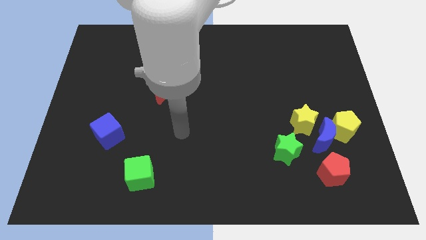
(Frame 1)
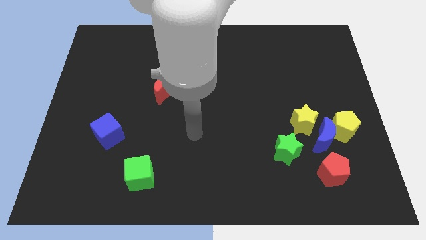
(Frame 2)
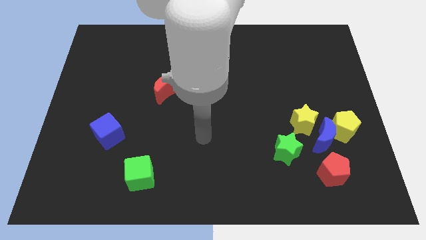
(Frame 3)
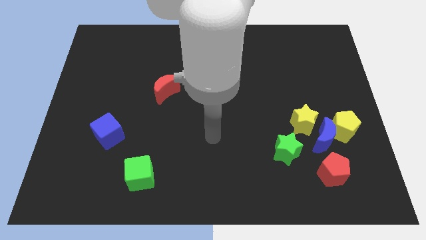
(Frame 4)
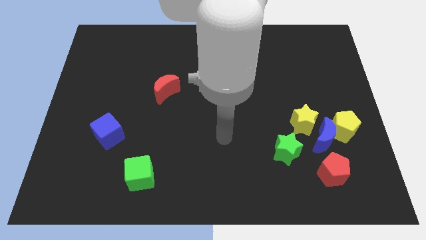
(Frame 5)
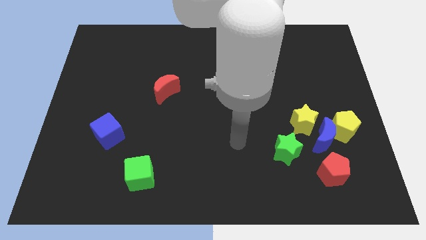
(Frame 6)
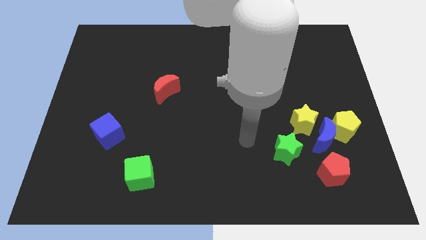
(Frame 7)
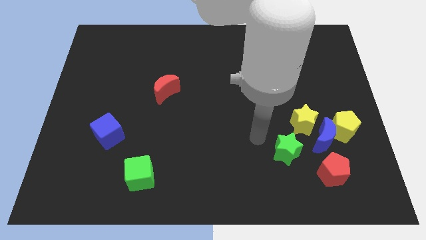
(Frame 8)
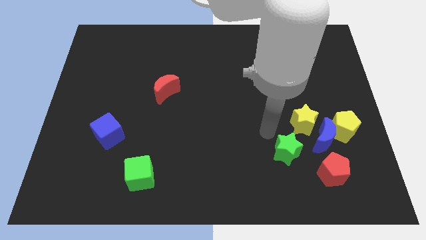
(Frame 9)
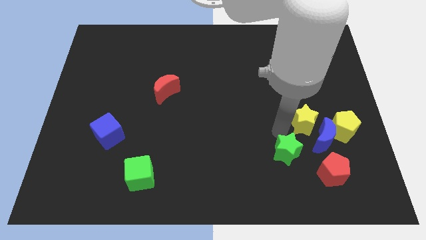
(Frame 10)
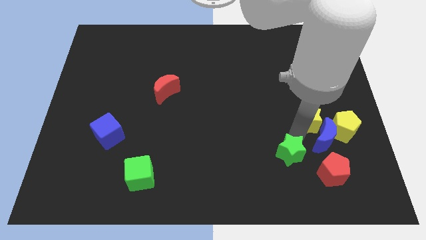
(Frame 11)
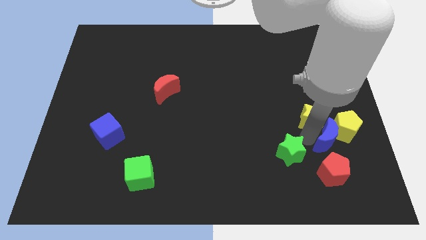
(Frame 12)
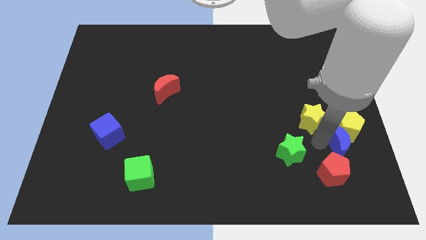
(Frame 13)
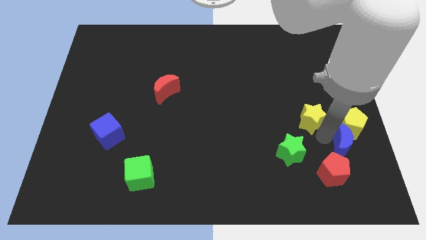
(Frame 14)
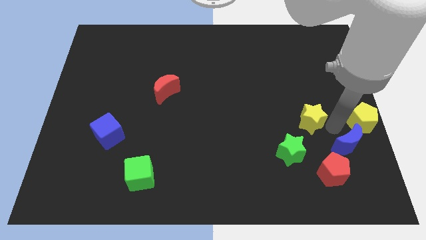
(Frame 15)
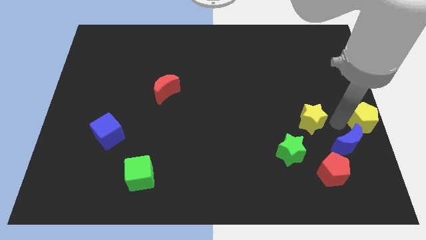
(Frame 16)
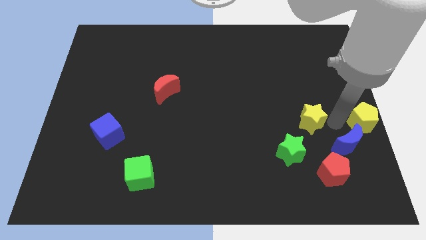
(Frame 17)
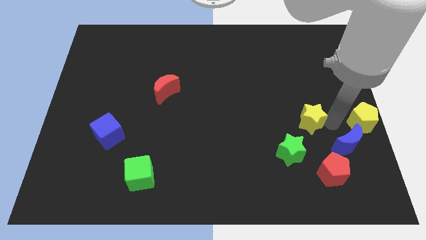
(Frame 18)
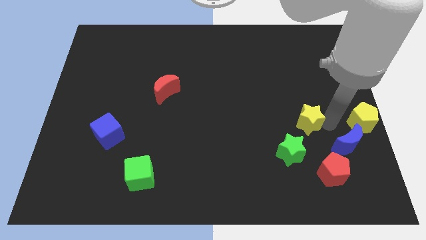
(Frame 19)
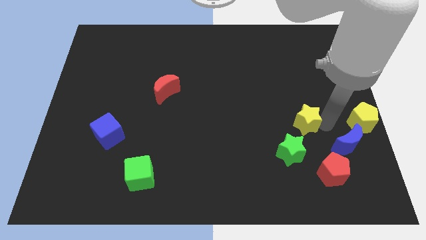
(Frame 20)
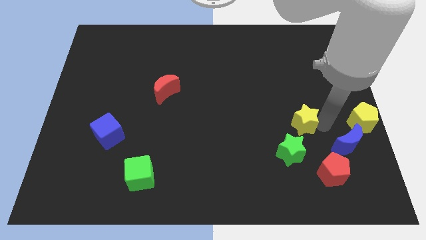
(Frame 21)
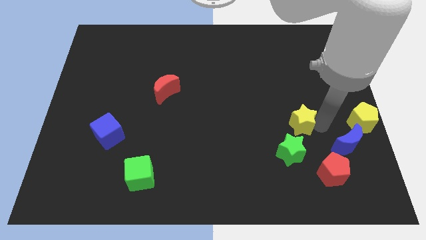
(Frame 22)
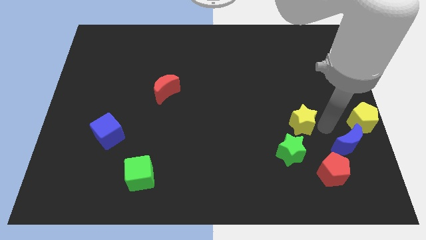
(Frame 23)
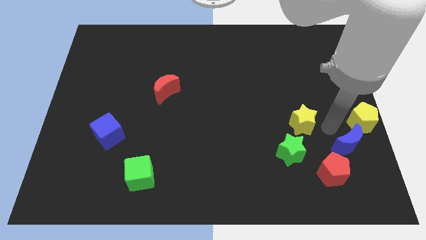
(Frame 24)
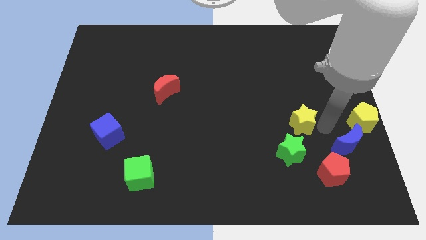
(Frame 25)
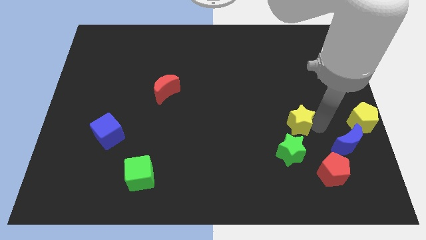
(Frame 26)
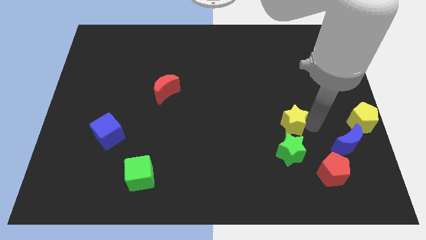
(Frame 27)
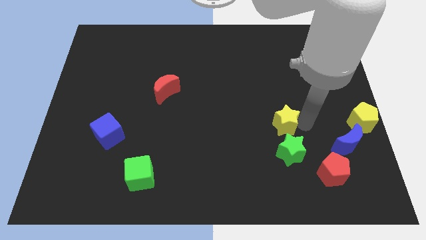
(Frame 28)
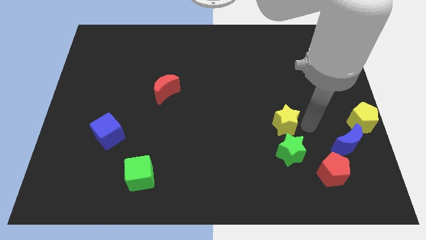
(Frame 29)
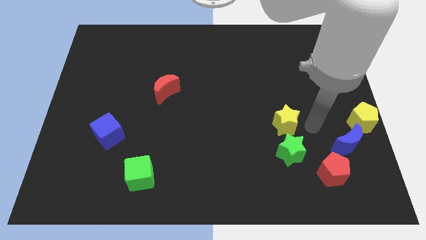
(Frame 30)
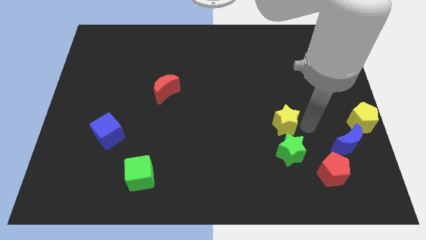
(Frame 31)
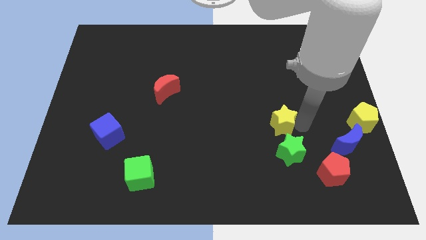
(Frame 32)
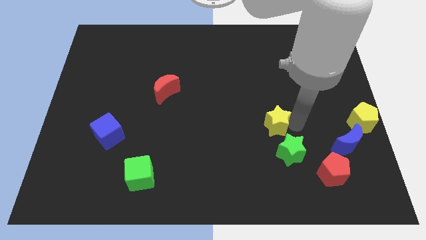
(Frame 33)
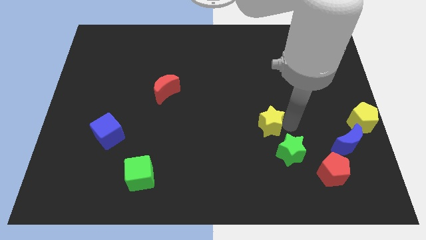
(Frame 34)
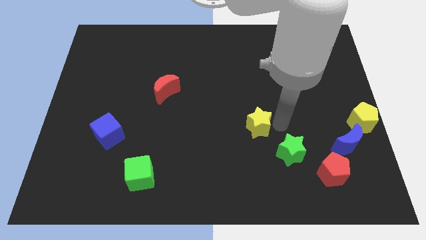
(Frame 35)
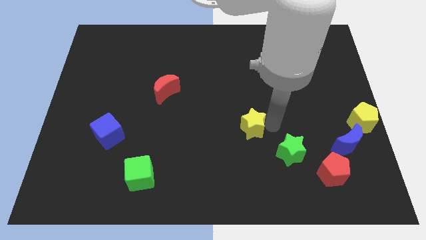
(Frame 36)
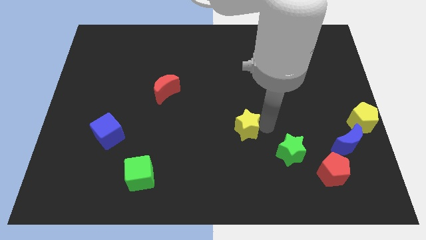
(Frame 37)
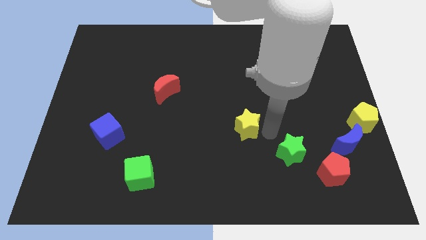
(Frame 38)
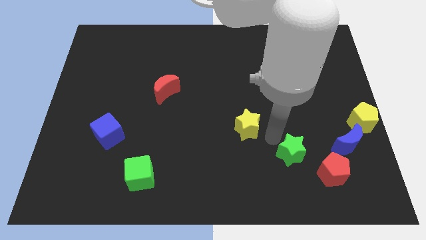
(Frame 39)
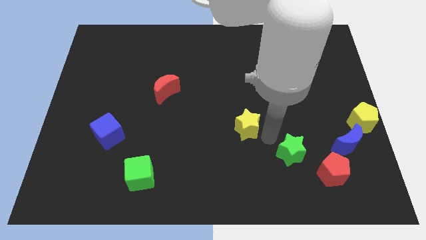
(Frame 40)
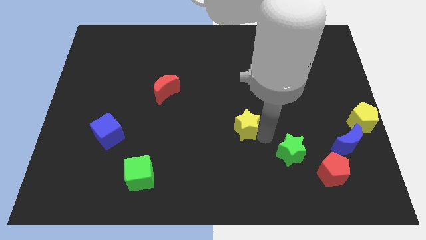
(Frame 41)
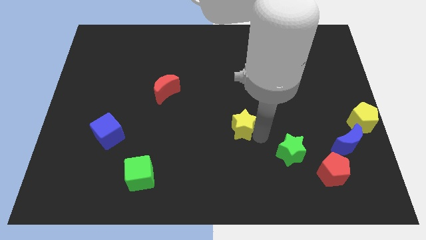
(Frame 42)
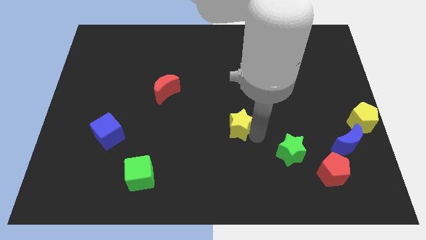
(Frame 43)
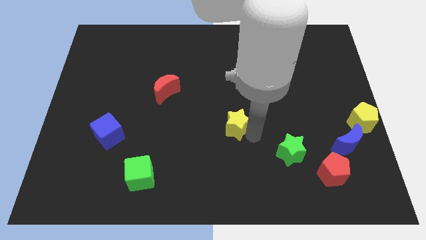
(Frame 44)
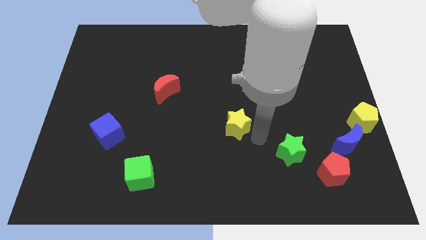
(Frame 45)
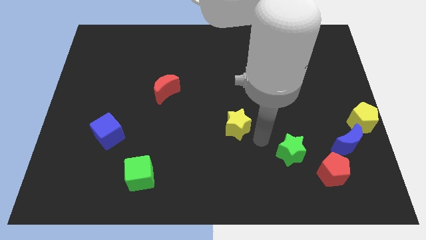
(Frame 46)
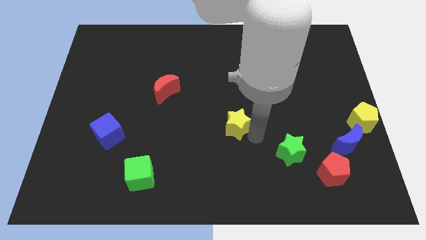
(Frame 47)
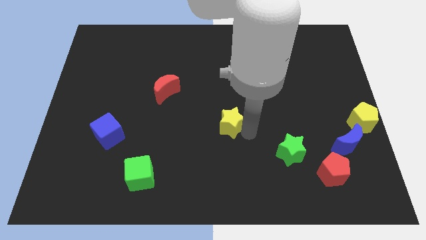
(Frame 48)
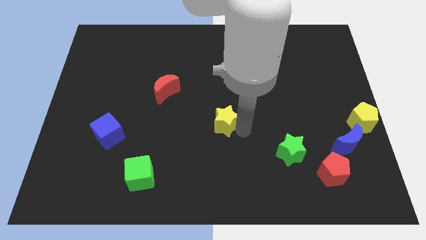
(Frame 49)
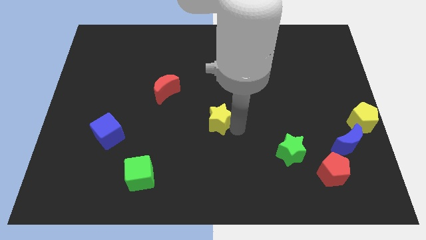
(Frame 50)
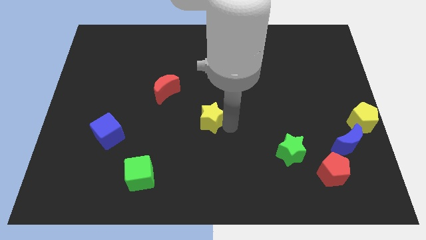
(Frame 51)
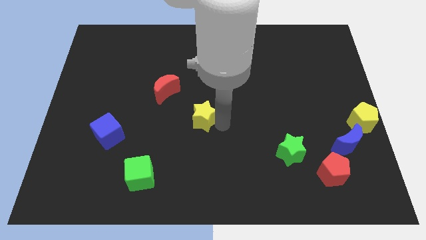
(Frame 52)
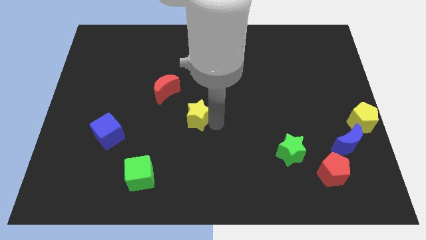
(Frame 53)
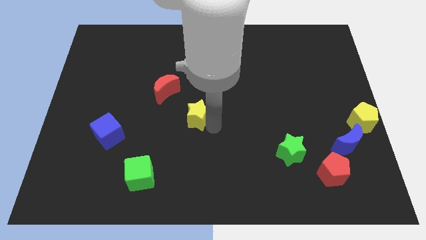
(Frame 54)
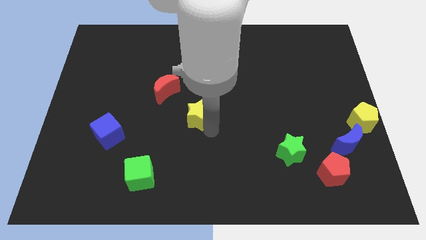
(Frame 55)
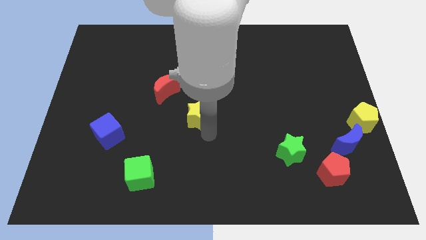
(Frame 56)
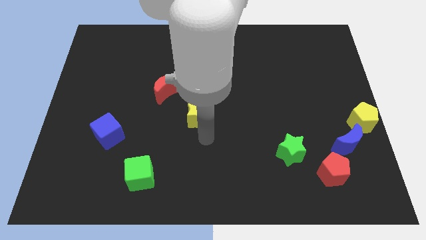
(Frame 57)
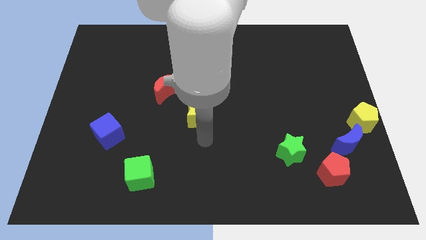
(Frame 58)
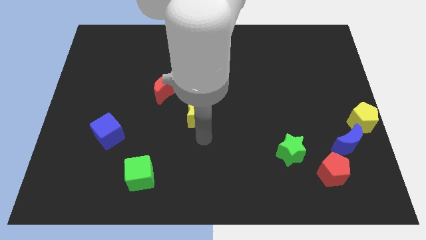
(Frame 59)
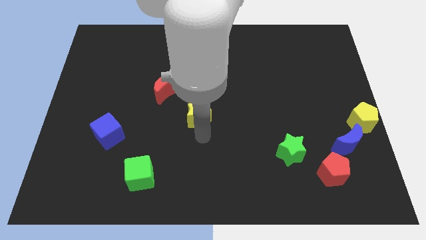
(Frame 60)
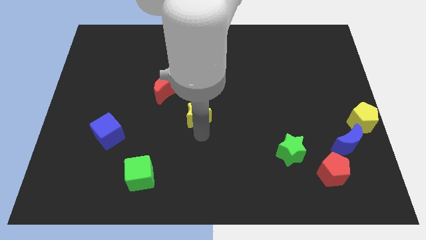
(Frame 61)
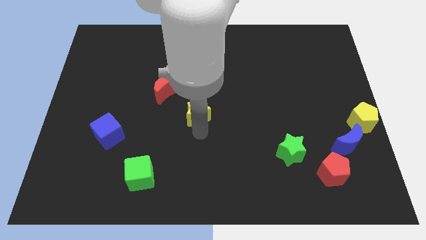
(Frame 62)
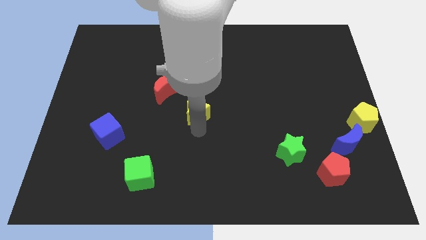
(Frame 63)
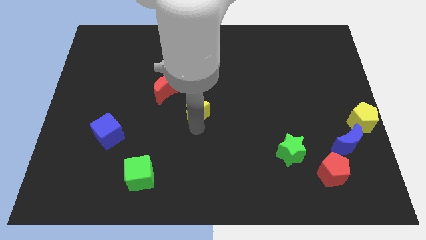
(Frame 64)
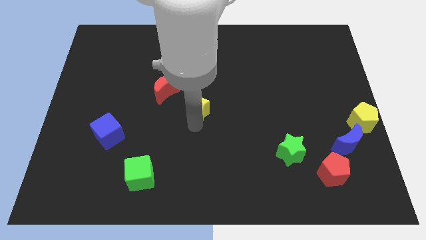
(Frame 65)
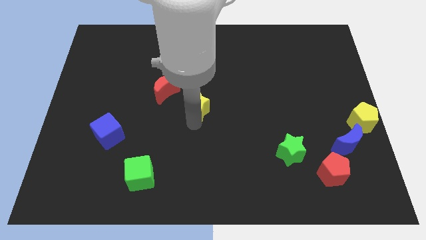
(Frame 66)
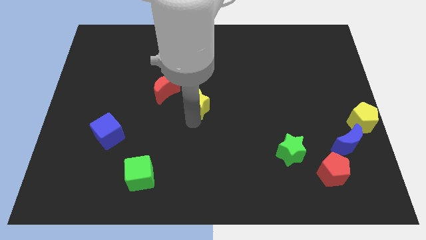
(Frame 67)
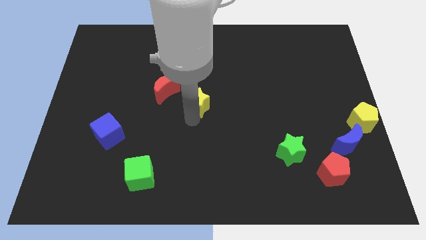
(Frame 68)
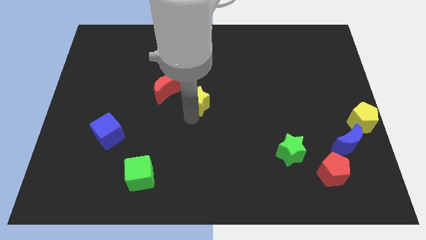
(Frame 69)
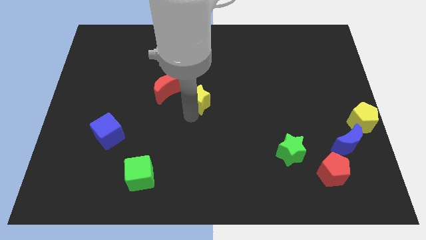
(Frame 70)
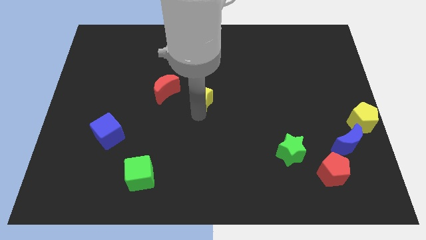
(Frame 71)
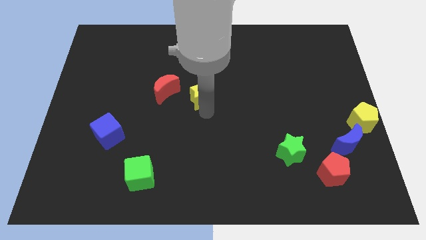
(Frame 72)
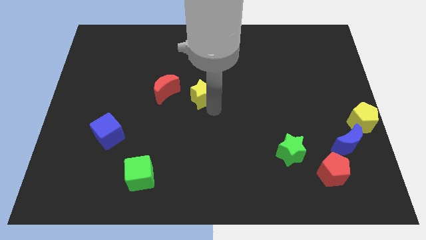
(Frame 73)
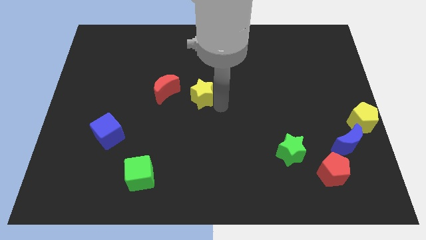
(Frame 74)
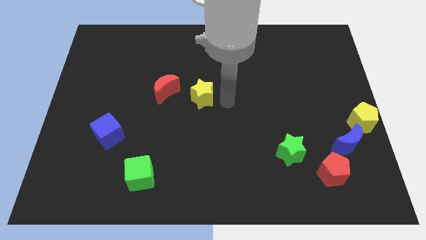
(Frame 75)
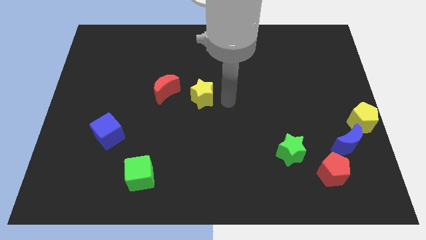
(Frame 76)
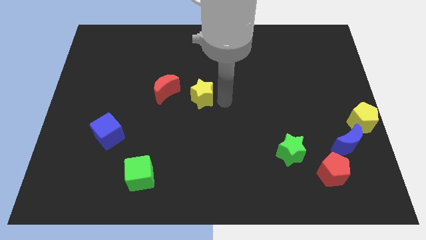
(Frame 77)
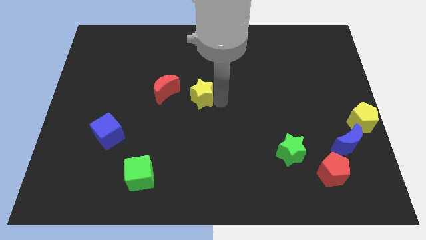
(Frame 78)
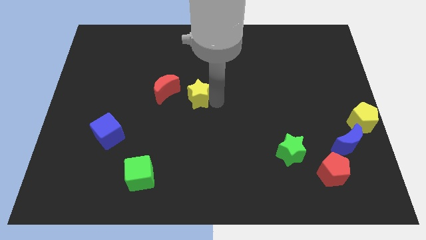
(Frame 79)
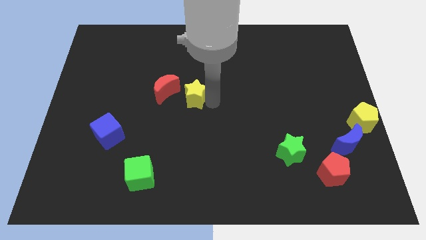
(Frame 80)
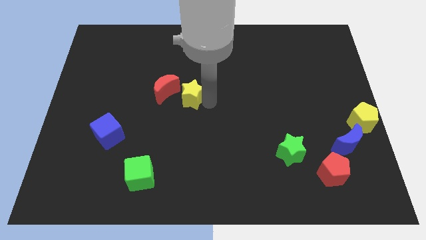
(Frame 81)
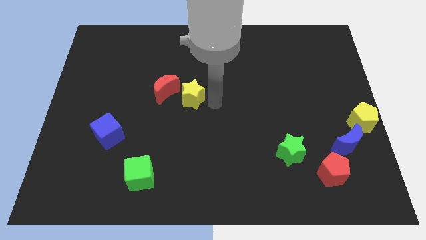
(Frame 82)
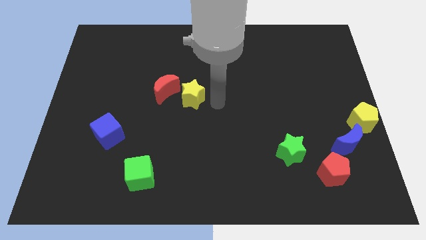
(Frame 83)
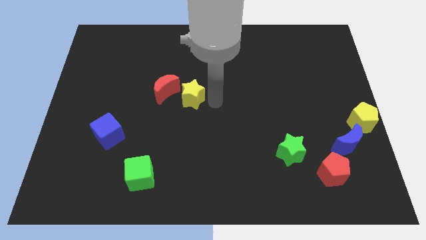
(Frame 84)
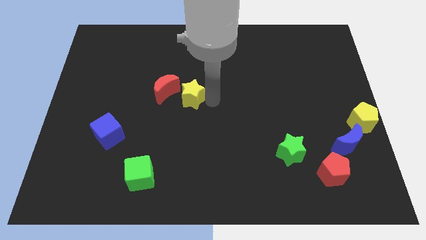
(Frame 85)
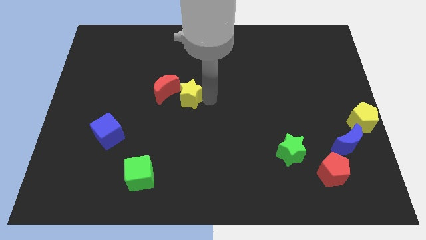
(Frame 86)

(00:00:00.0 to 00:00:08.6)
slide the yellow star next to the red moon
